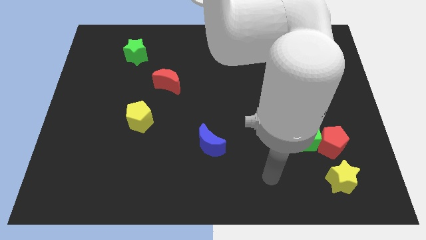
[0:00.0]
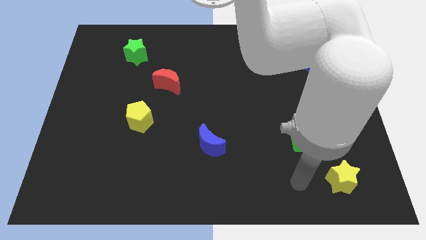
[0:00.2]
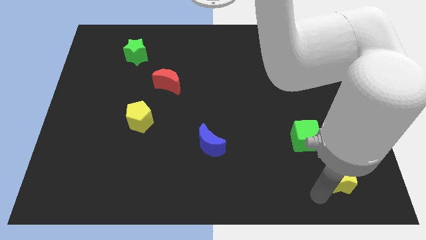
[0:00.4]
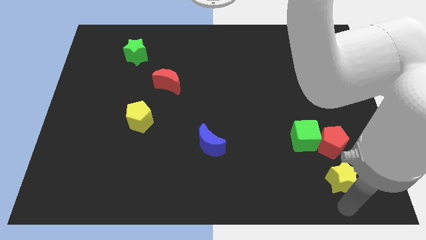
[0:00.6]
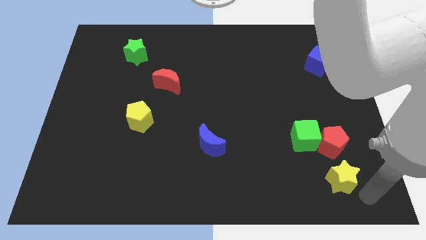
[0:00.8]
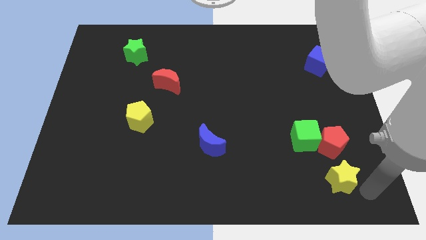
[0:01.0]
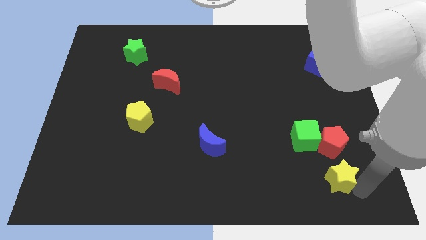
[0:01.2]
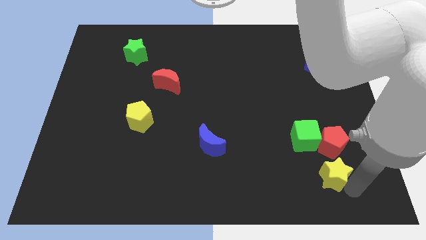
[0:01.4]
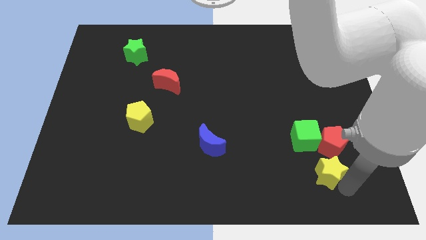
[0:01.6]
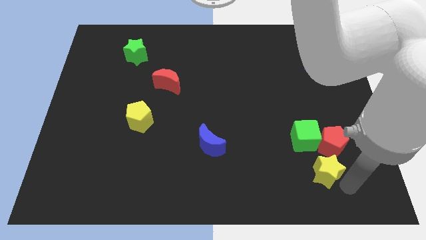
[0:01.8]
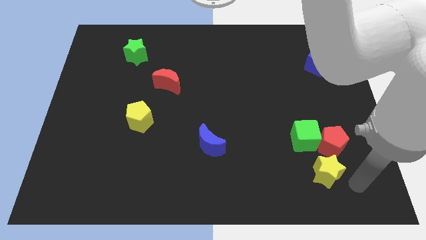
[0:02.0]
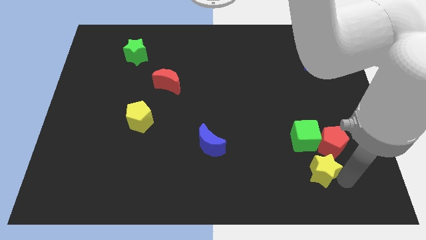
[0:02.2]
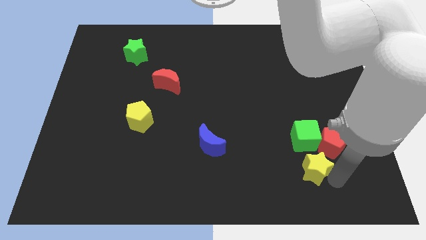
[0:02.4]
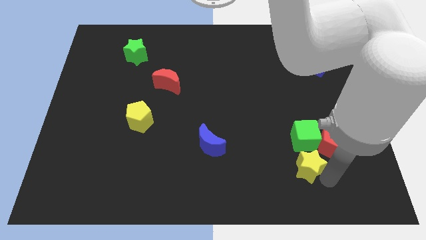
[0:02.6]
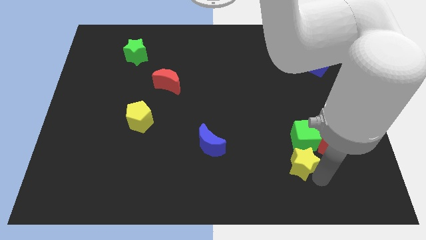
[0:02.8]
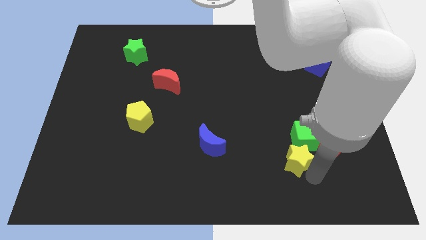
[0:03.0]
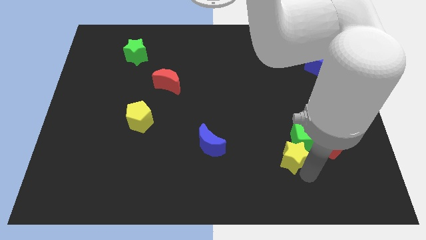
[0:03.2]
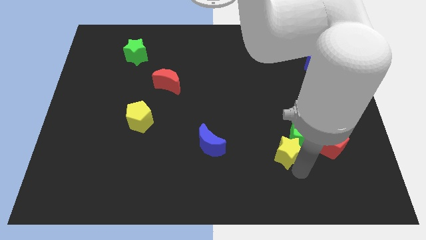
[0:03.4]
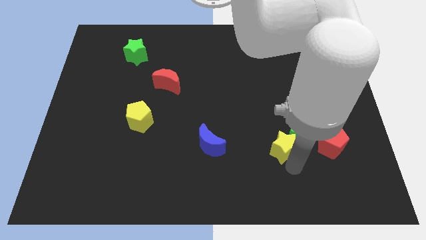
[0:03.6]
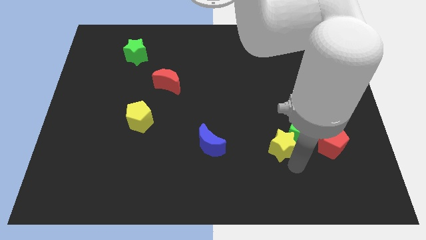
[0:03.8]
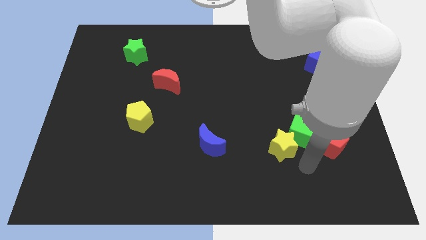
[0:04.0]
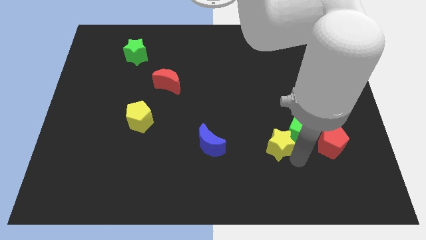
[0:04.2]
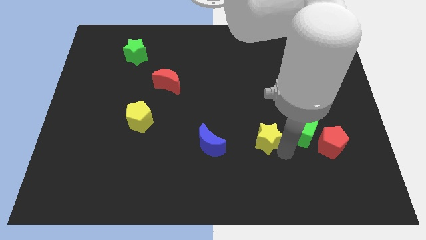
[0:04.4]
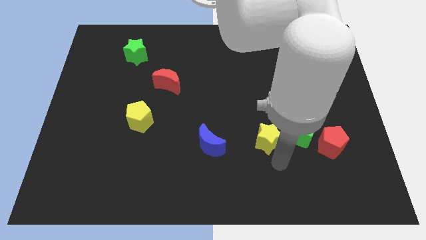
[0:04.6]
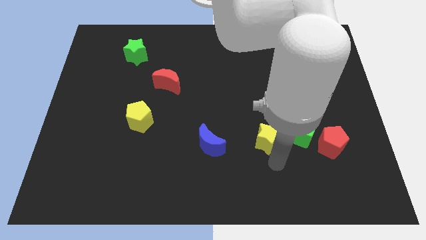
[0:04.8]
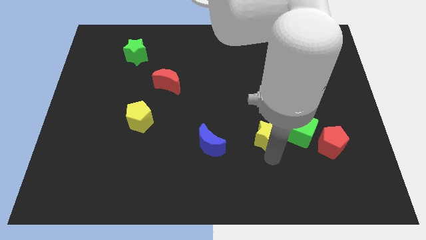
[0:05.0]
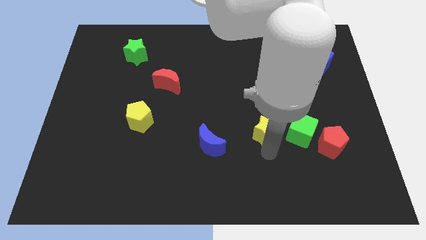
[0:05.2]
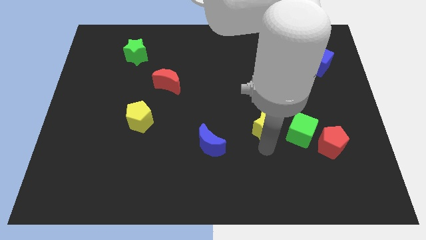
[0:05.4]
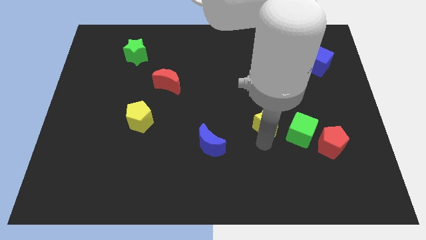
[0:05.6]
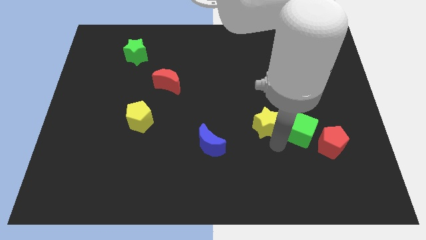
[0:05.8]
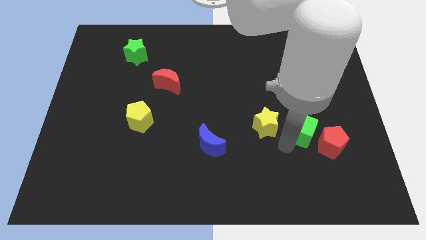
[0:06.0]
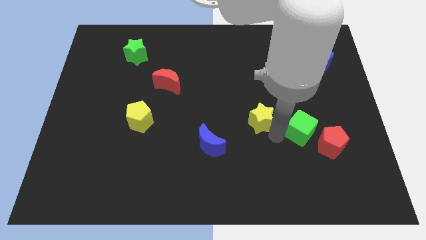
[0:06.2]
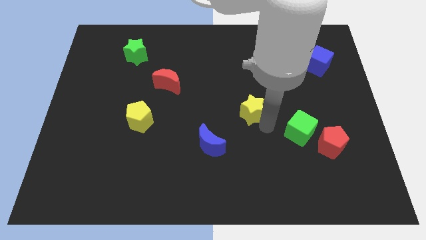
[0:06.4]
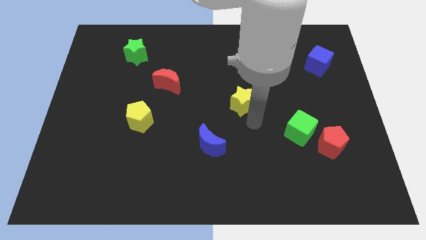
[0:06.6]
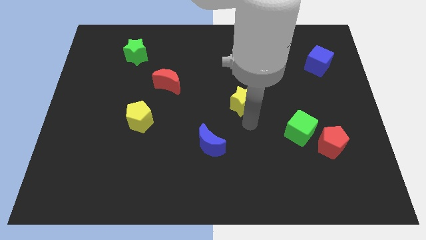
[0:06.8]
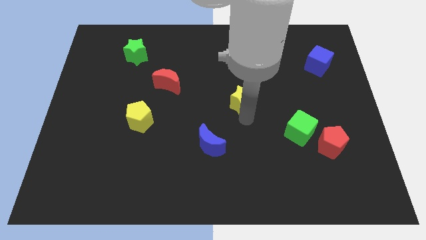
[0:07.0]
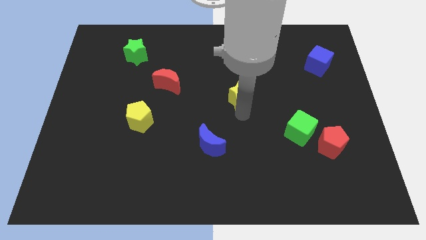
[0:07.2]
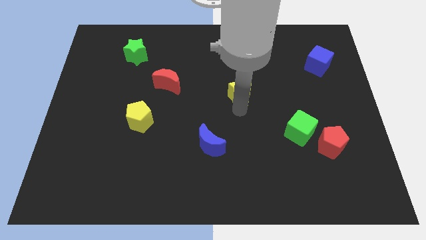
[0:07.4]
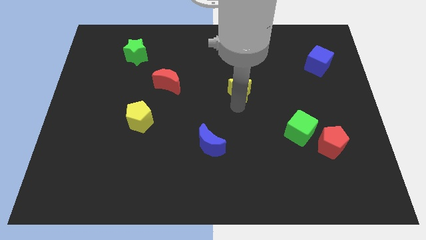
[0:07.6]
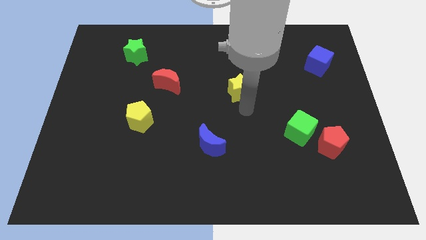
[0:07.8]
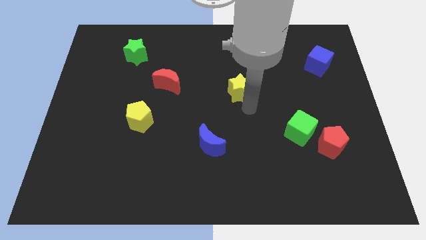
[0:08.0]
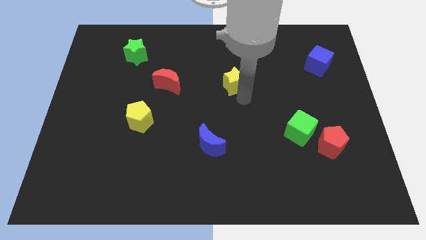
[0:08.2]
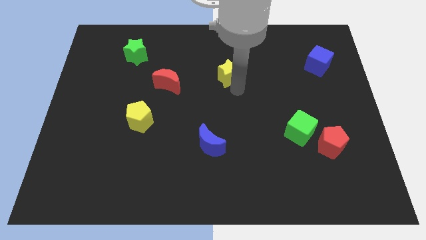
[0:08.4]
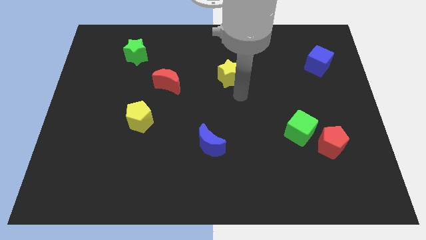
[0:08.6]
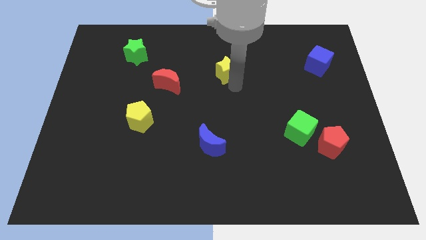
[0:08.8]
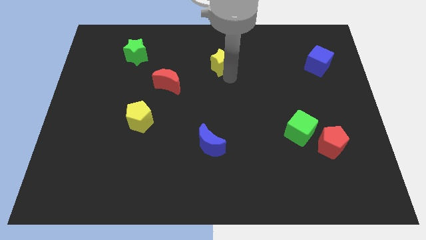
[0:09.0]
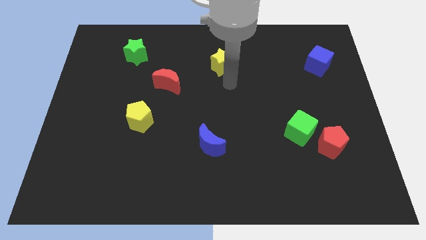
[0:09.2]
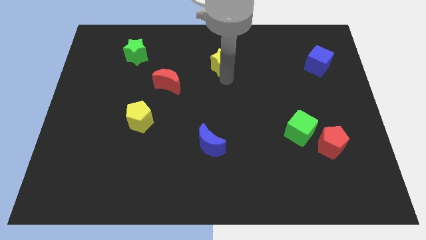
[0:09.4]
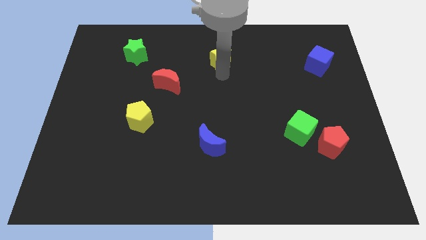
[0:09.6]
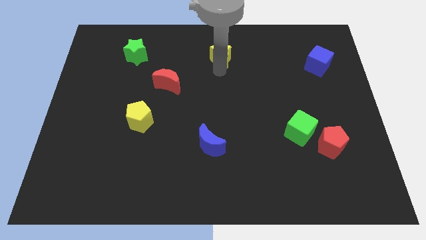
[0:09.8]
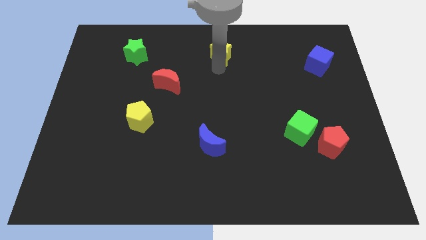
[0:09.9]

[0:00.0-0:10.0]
slide the yellow star to the top side
